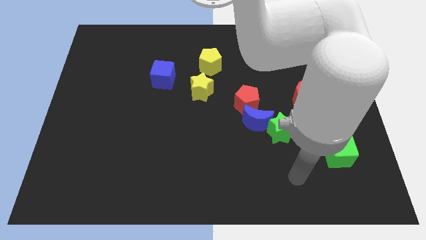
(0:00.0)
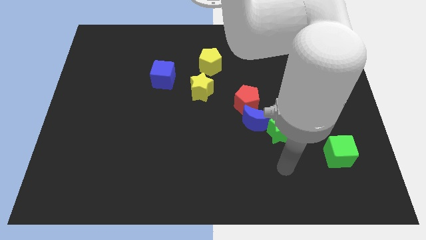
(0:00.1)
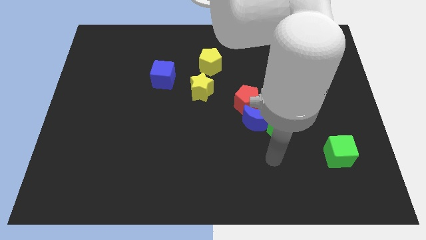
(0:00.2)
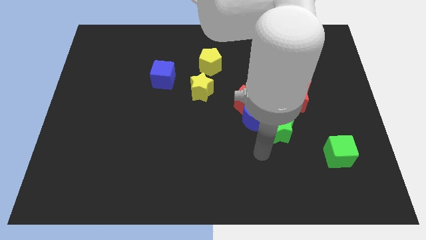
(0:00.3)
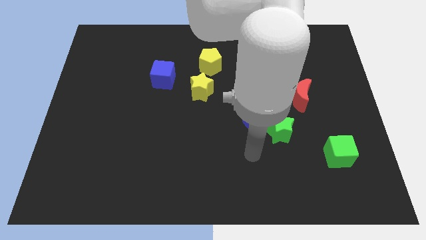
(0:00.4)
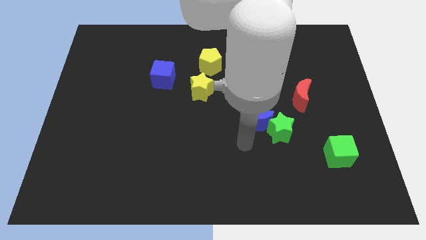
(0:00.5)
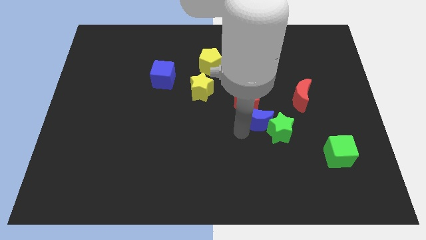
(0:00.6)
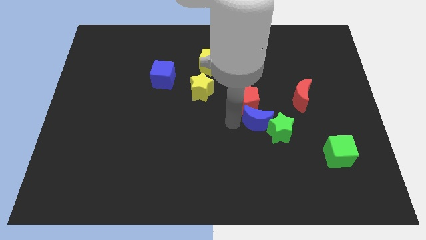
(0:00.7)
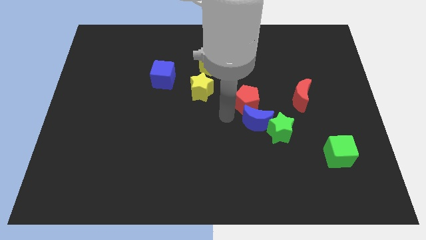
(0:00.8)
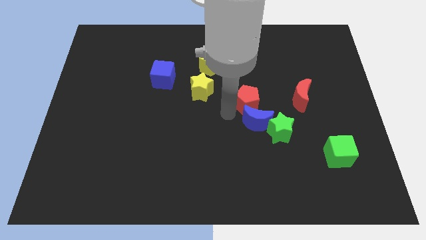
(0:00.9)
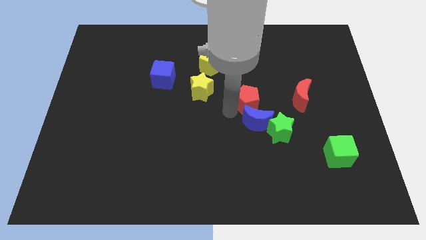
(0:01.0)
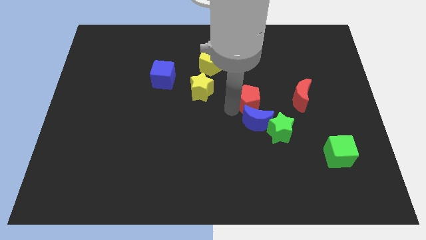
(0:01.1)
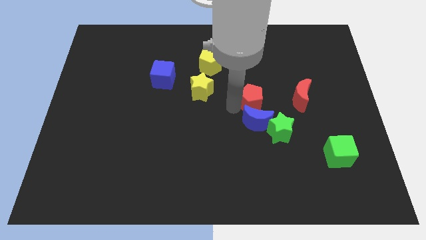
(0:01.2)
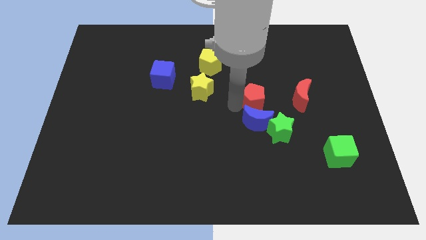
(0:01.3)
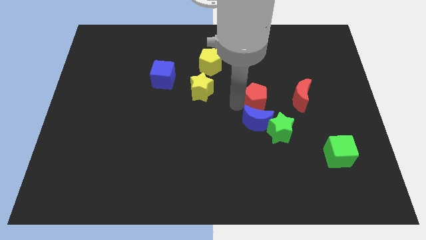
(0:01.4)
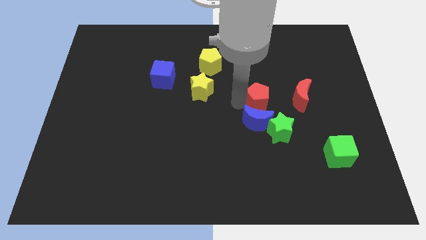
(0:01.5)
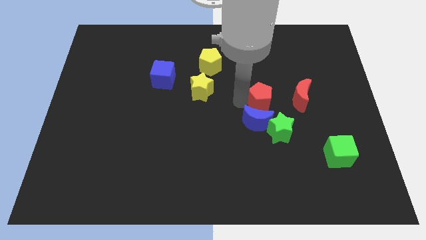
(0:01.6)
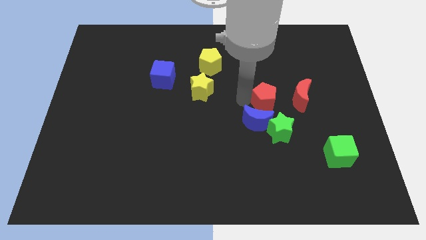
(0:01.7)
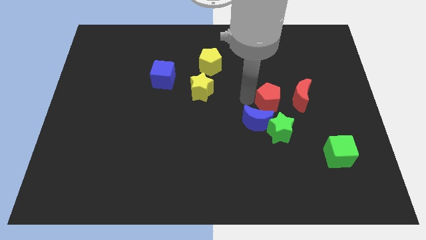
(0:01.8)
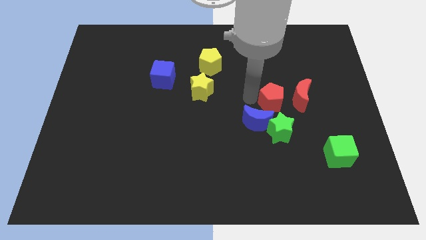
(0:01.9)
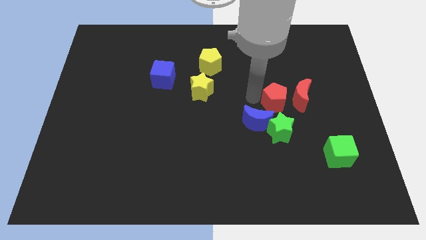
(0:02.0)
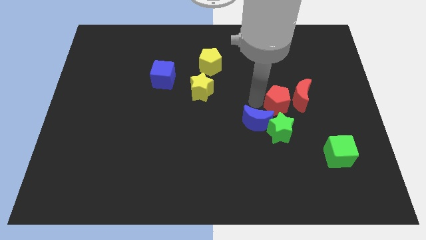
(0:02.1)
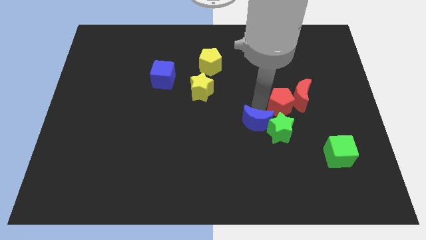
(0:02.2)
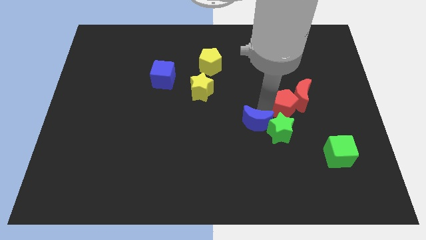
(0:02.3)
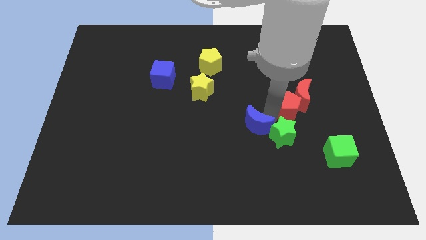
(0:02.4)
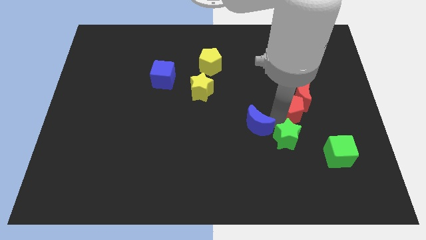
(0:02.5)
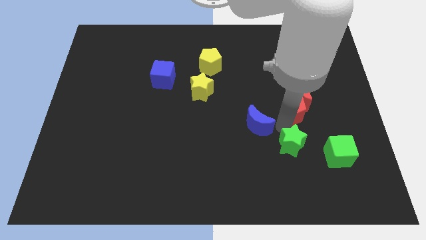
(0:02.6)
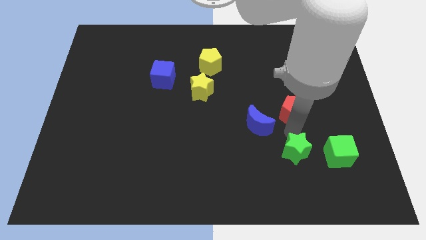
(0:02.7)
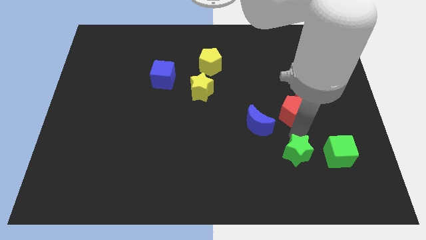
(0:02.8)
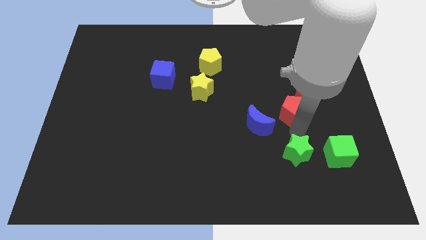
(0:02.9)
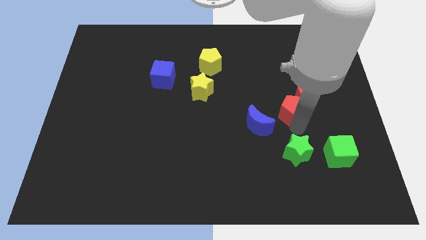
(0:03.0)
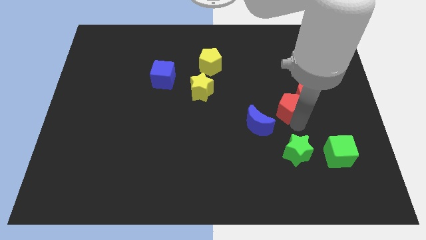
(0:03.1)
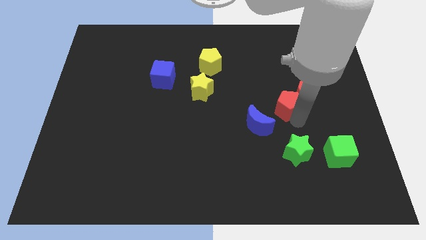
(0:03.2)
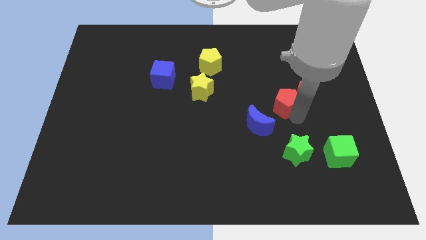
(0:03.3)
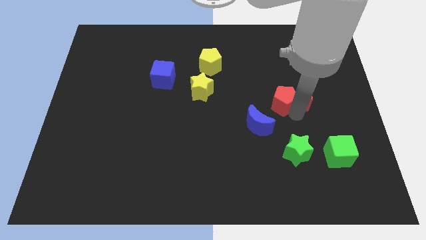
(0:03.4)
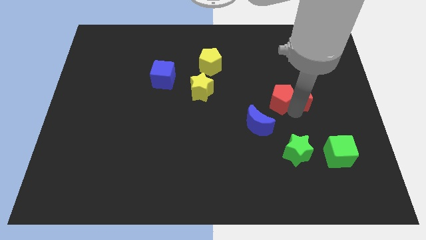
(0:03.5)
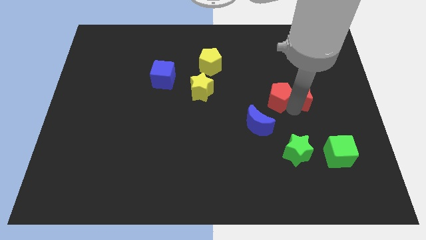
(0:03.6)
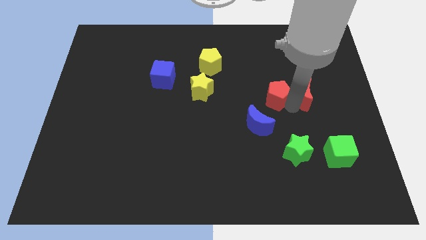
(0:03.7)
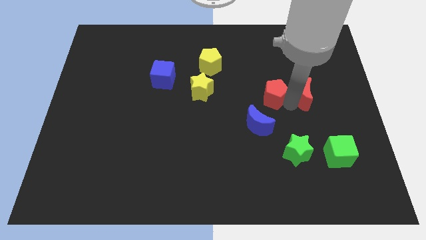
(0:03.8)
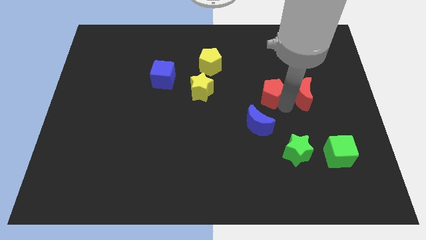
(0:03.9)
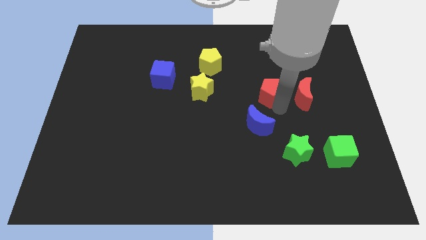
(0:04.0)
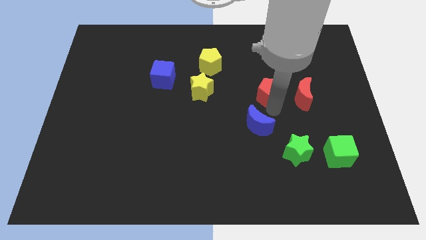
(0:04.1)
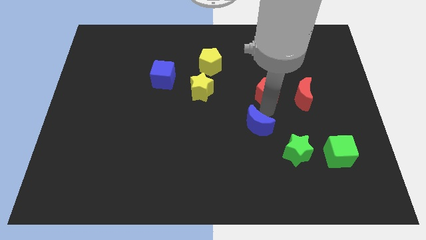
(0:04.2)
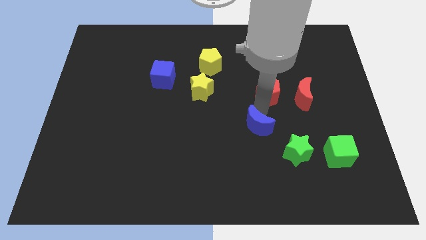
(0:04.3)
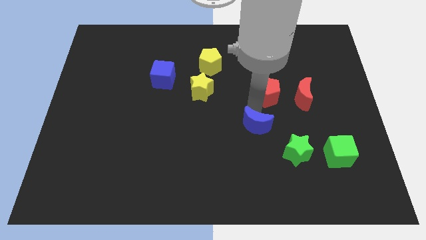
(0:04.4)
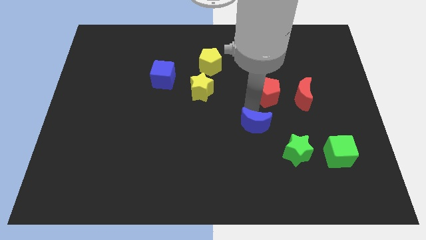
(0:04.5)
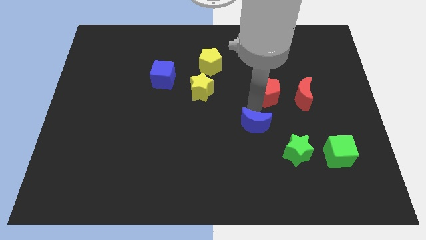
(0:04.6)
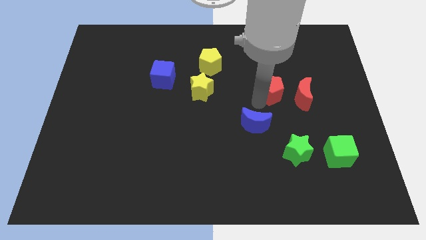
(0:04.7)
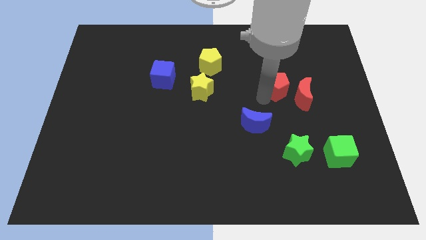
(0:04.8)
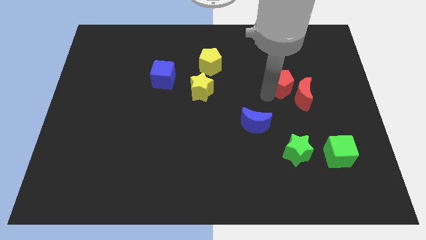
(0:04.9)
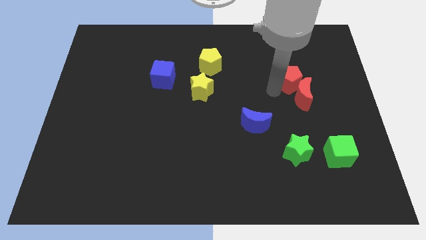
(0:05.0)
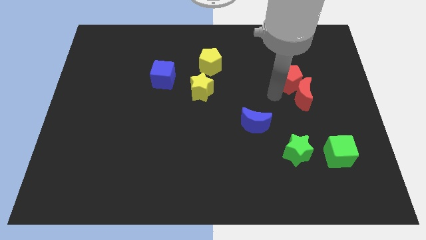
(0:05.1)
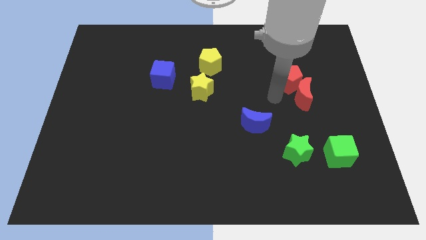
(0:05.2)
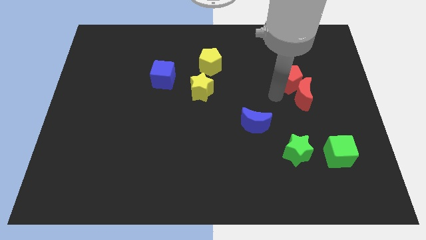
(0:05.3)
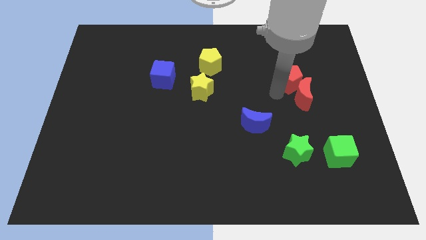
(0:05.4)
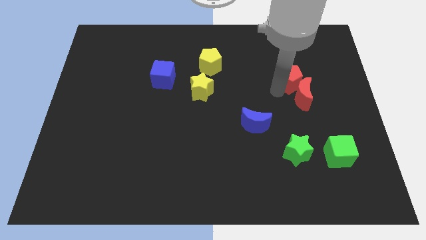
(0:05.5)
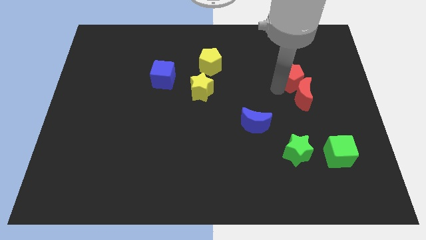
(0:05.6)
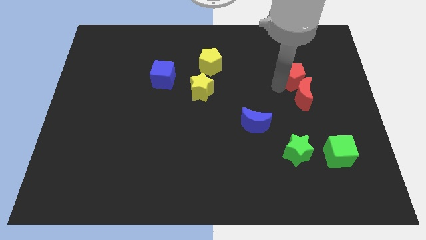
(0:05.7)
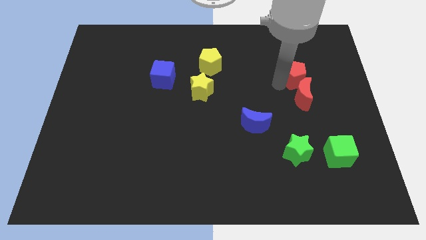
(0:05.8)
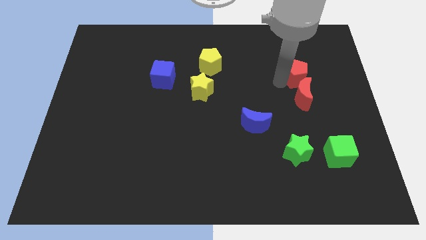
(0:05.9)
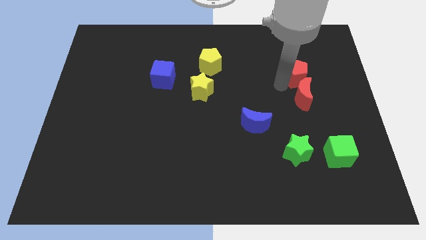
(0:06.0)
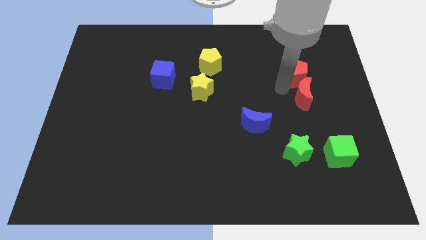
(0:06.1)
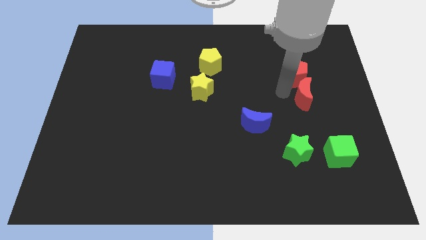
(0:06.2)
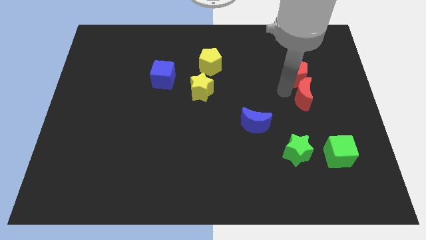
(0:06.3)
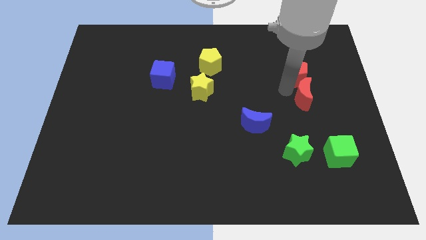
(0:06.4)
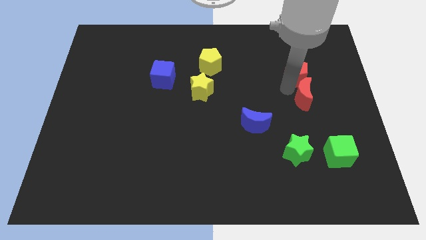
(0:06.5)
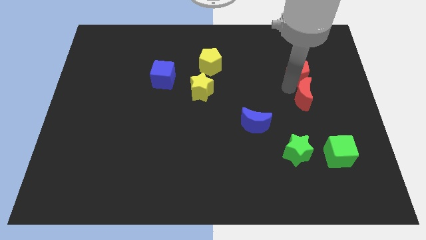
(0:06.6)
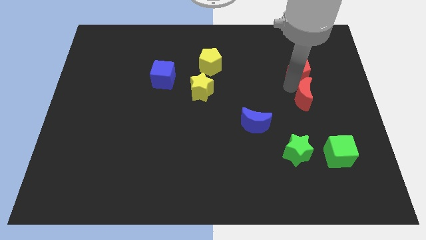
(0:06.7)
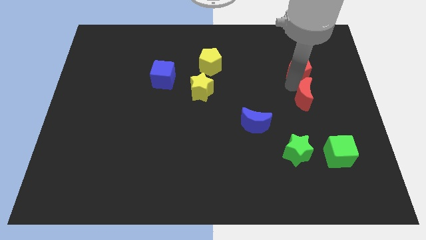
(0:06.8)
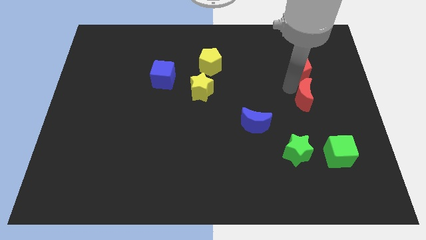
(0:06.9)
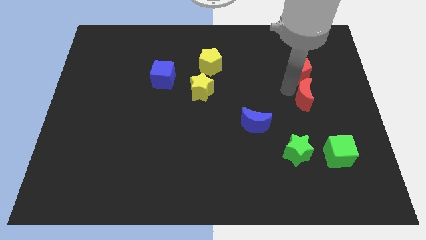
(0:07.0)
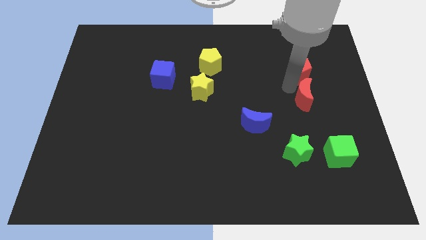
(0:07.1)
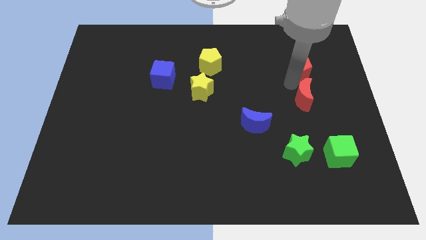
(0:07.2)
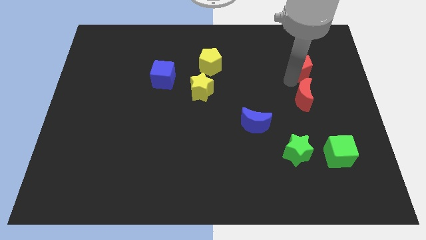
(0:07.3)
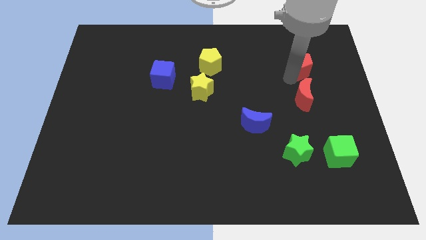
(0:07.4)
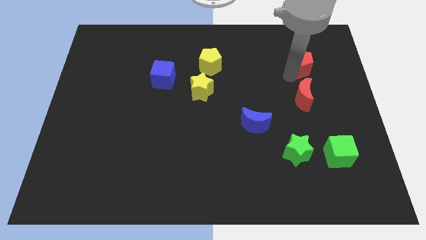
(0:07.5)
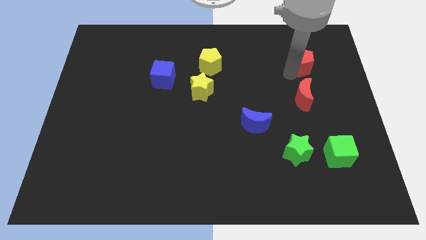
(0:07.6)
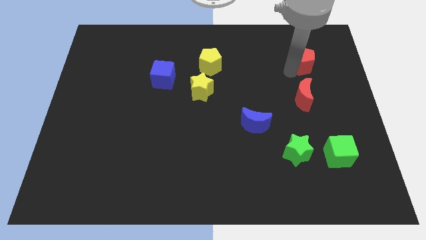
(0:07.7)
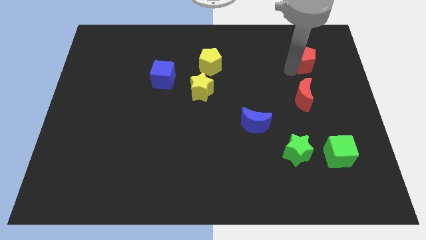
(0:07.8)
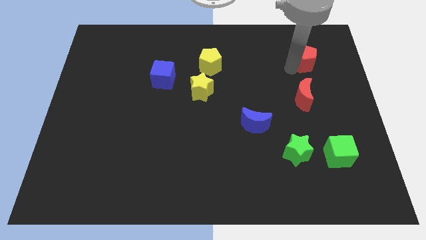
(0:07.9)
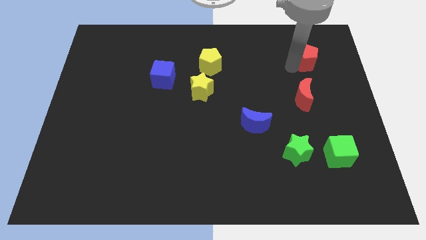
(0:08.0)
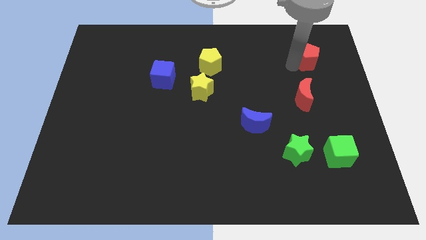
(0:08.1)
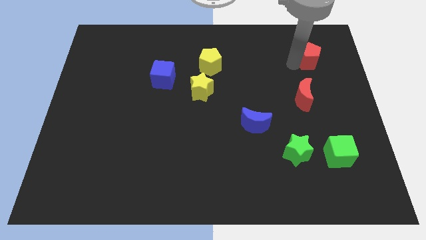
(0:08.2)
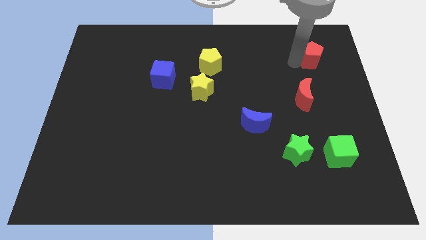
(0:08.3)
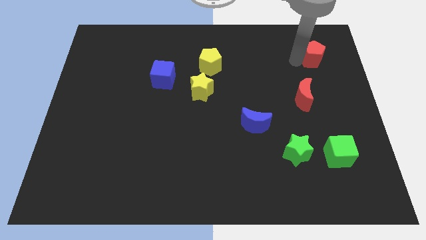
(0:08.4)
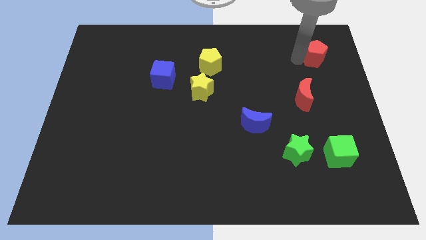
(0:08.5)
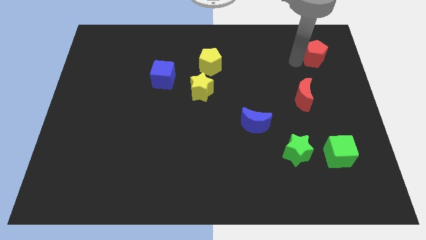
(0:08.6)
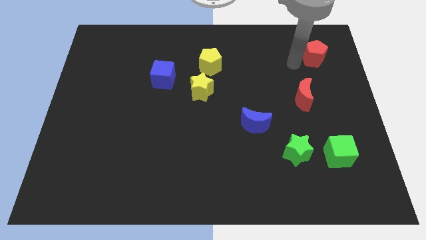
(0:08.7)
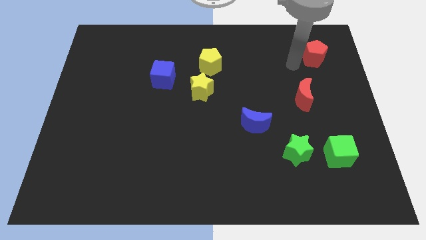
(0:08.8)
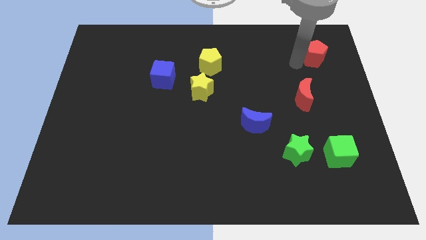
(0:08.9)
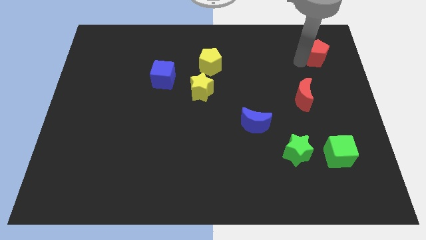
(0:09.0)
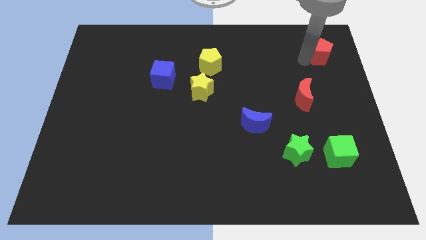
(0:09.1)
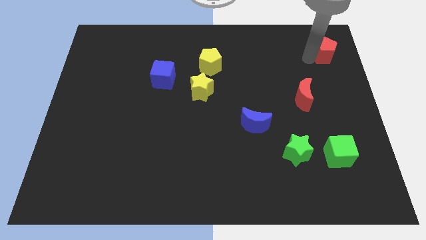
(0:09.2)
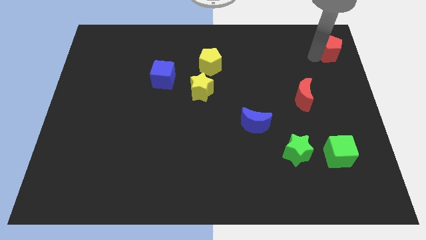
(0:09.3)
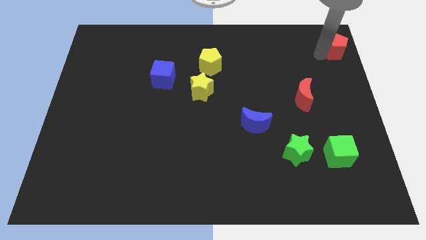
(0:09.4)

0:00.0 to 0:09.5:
put the red pentagon to the upper right corner
